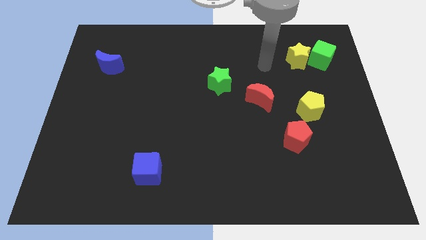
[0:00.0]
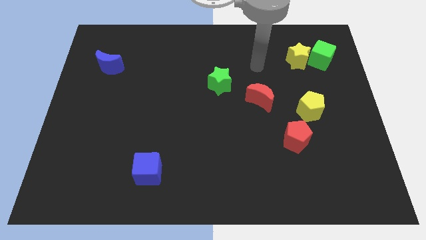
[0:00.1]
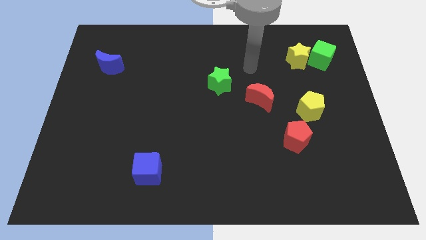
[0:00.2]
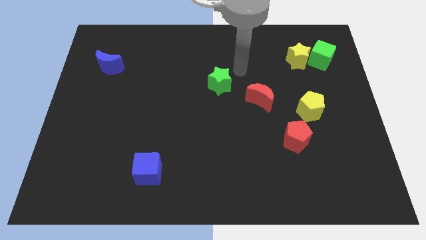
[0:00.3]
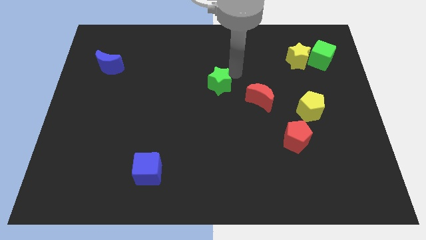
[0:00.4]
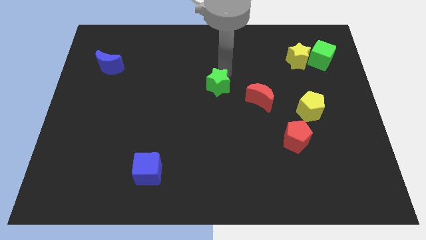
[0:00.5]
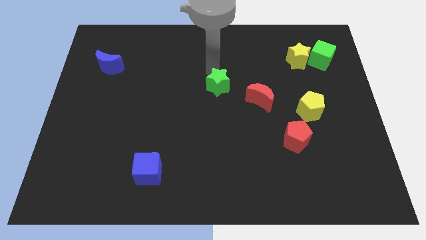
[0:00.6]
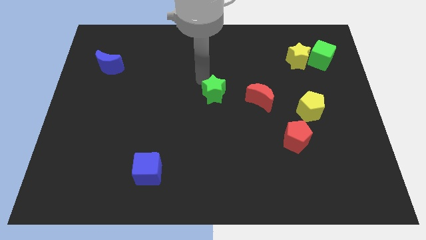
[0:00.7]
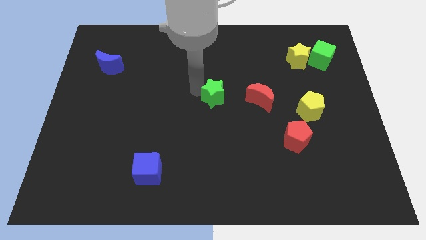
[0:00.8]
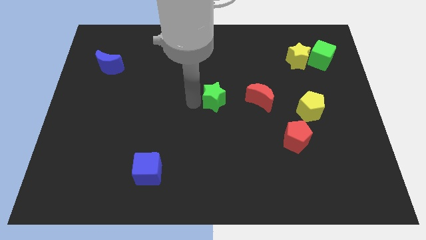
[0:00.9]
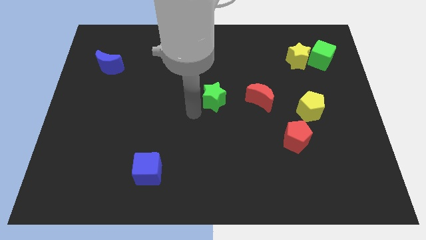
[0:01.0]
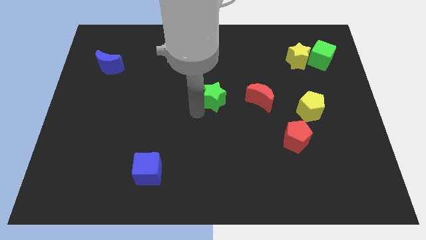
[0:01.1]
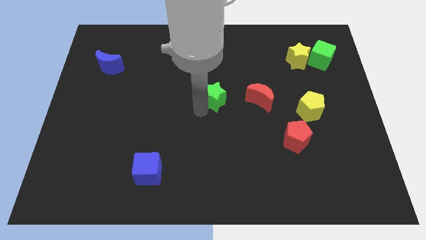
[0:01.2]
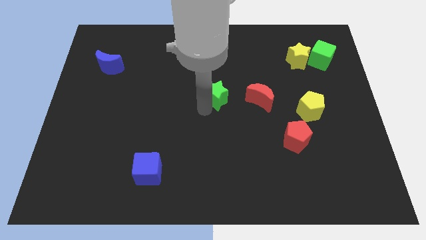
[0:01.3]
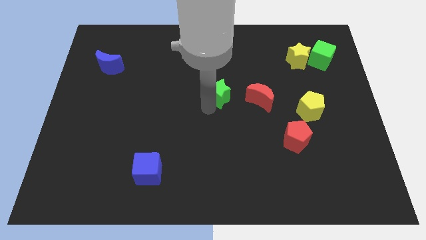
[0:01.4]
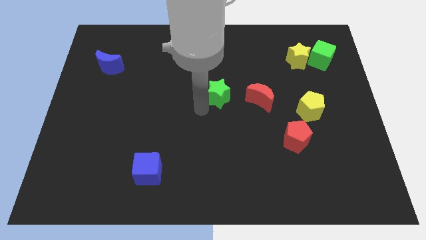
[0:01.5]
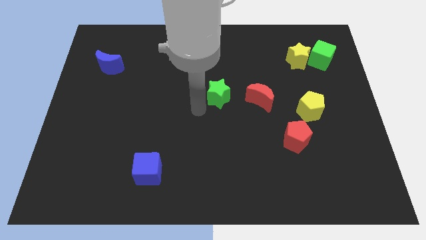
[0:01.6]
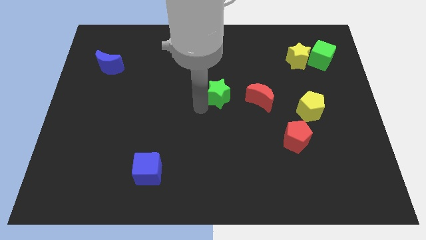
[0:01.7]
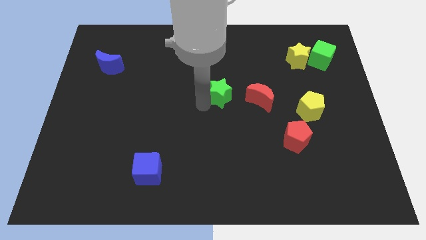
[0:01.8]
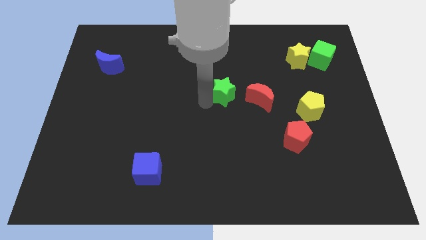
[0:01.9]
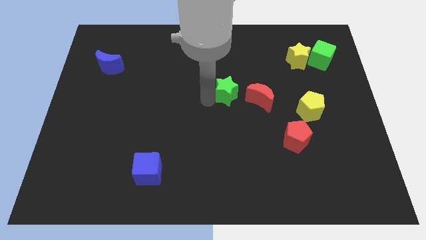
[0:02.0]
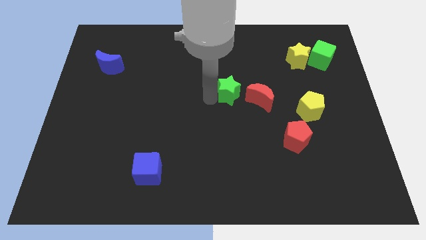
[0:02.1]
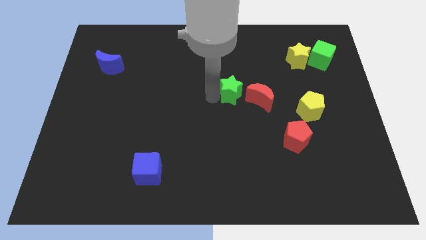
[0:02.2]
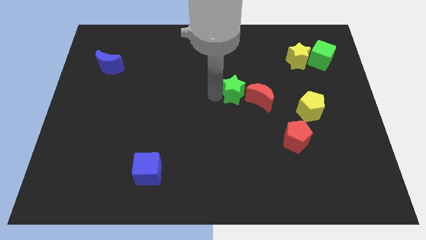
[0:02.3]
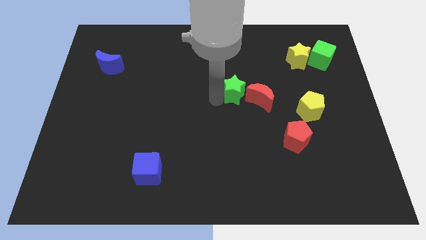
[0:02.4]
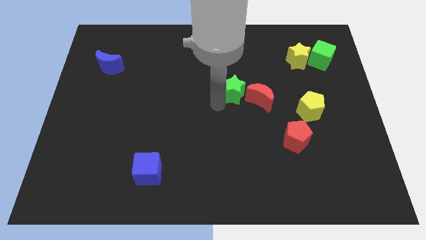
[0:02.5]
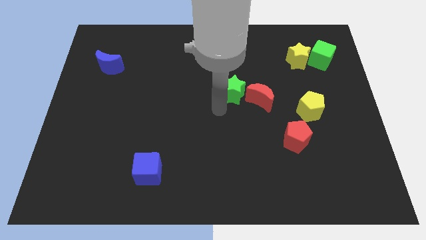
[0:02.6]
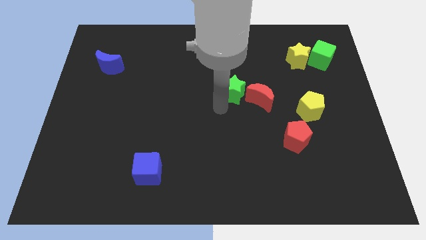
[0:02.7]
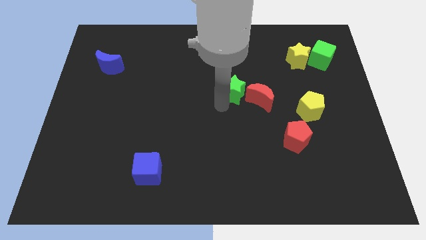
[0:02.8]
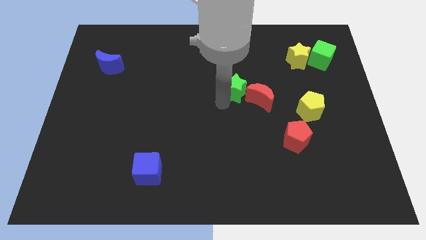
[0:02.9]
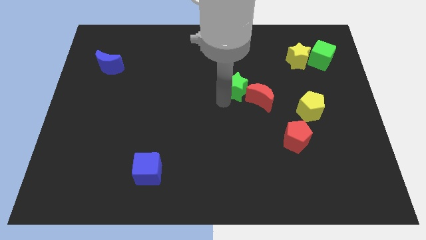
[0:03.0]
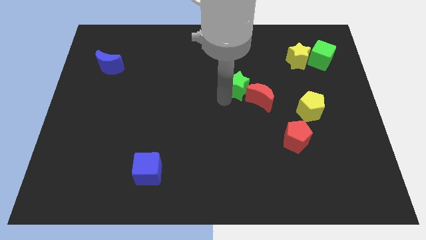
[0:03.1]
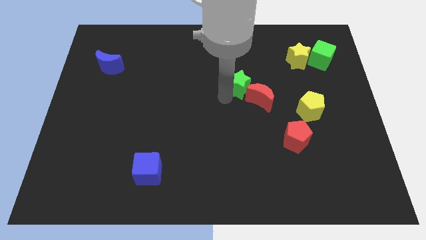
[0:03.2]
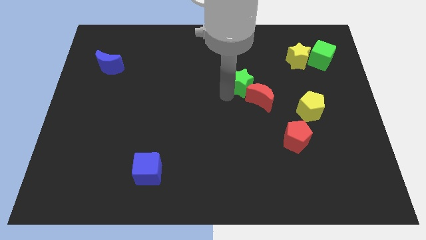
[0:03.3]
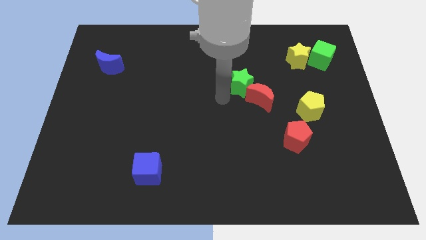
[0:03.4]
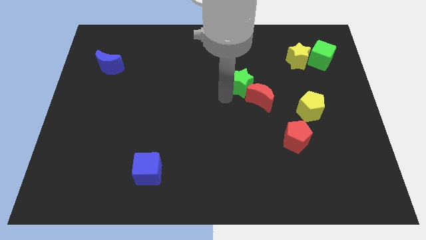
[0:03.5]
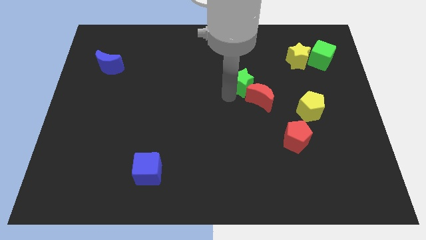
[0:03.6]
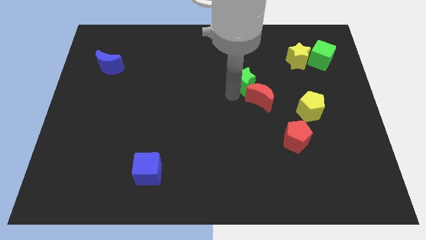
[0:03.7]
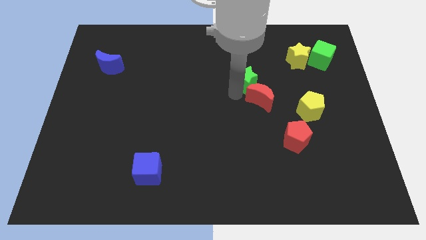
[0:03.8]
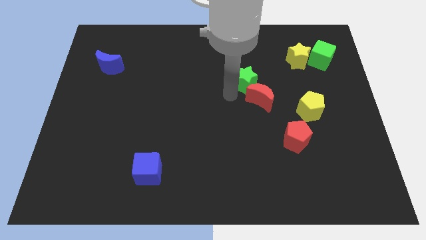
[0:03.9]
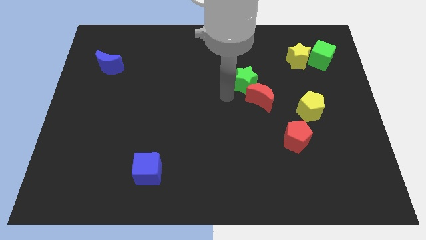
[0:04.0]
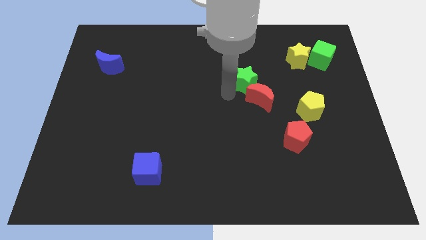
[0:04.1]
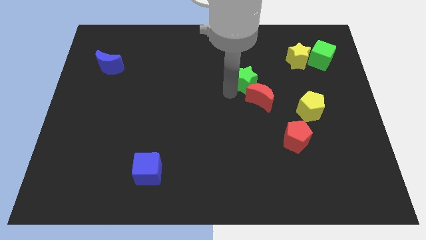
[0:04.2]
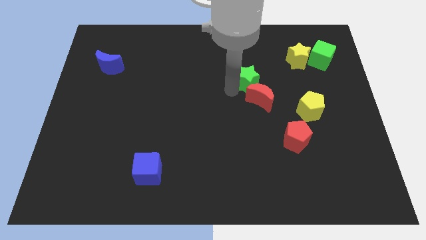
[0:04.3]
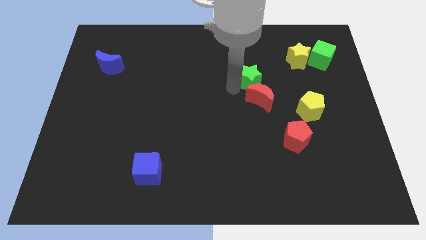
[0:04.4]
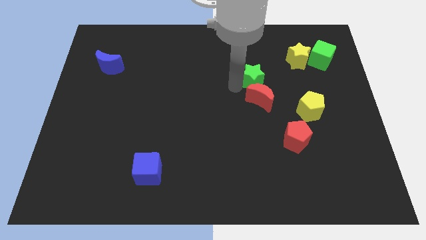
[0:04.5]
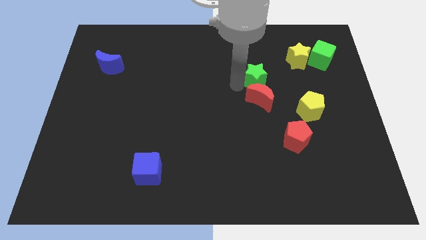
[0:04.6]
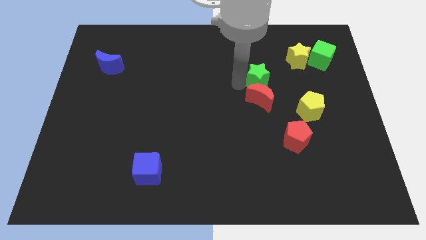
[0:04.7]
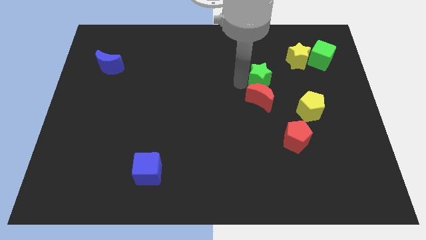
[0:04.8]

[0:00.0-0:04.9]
slide the green star diagonally down and to the left of the yellow star

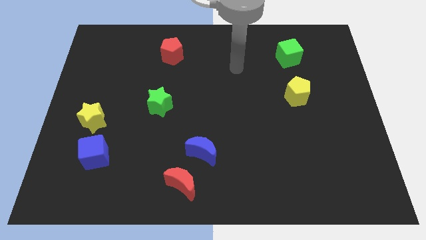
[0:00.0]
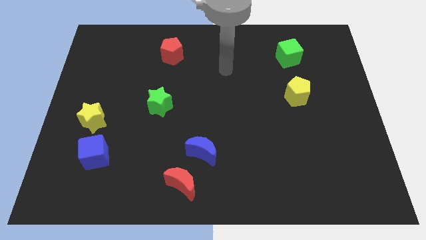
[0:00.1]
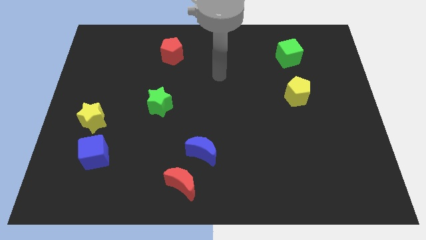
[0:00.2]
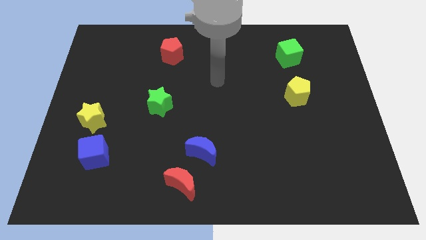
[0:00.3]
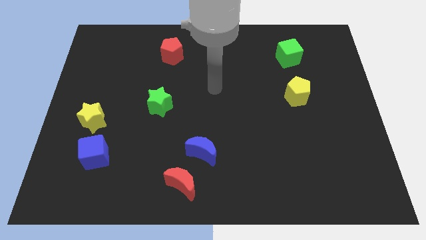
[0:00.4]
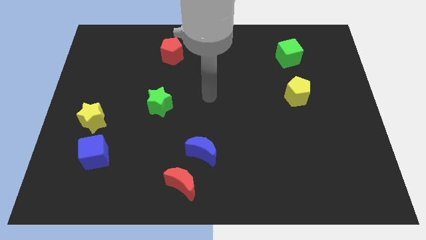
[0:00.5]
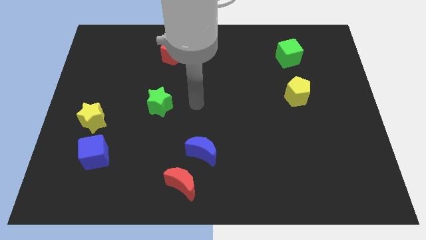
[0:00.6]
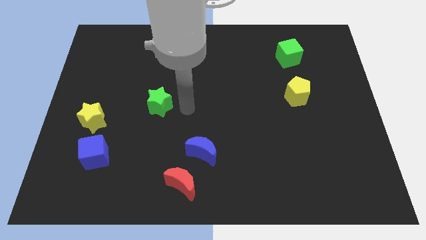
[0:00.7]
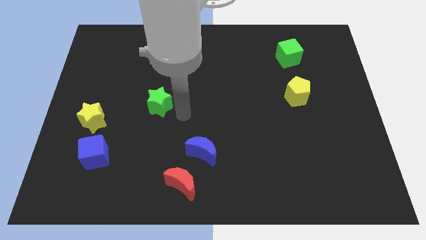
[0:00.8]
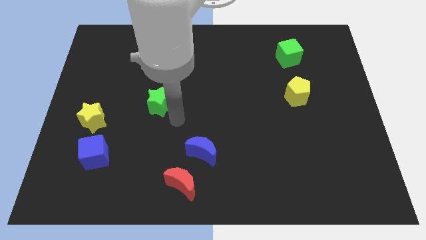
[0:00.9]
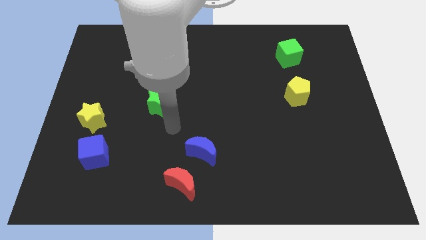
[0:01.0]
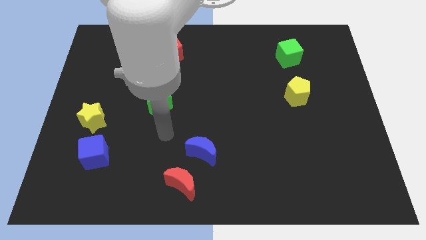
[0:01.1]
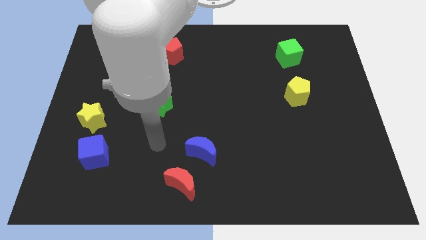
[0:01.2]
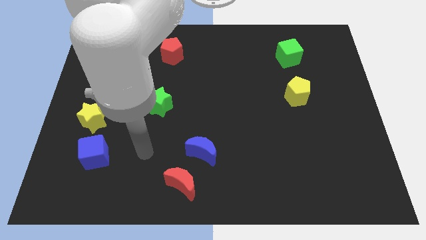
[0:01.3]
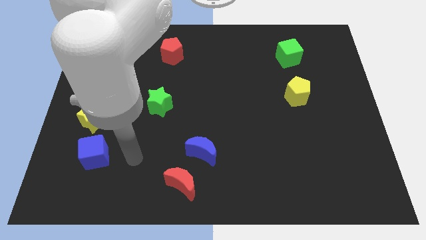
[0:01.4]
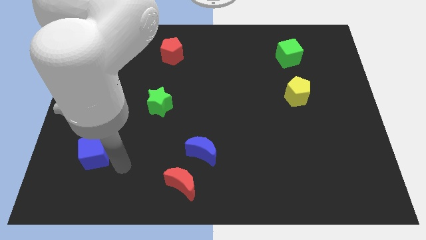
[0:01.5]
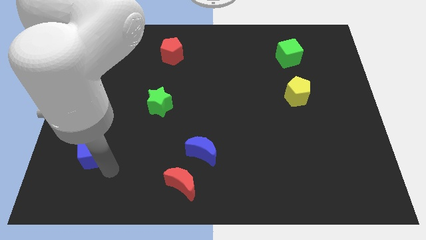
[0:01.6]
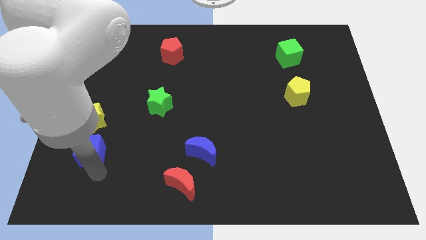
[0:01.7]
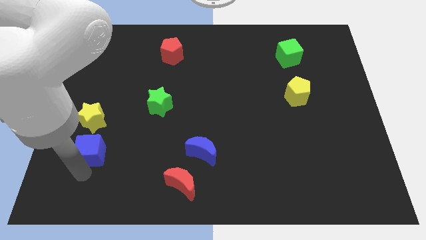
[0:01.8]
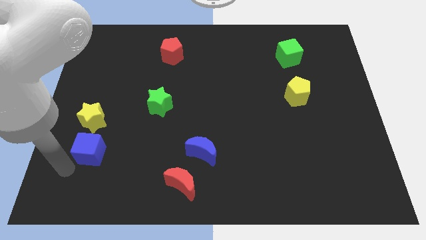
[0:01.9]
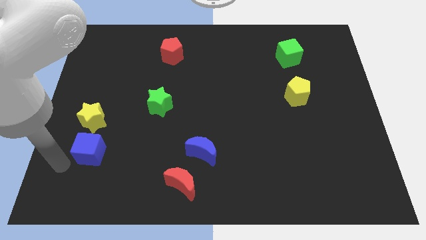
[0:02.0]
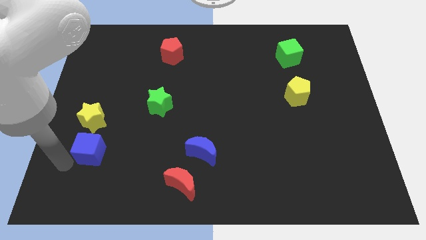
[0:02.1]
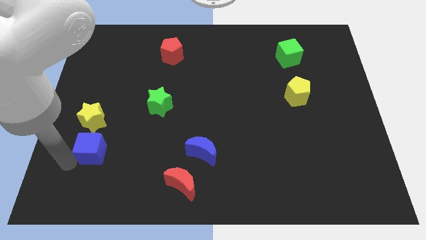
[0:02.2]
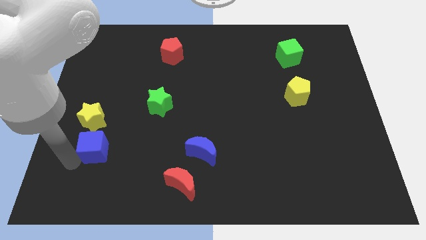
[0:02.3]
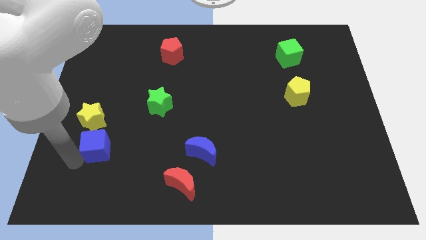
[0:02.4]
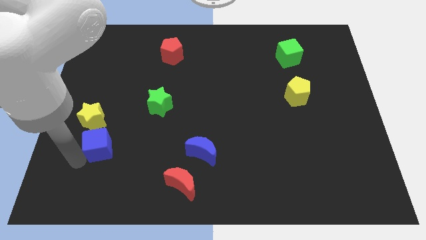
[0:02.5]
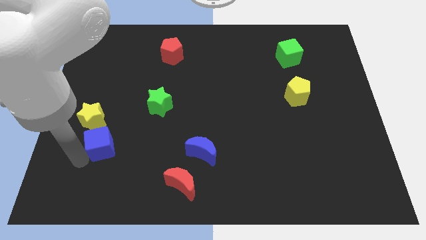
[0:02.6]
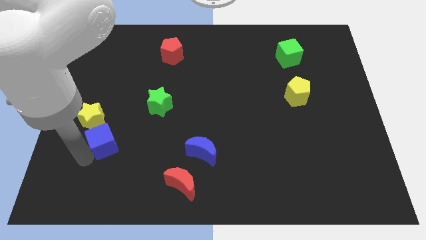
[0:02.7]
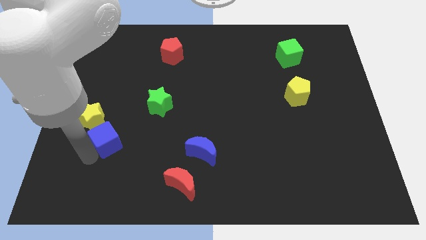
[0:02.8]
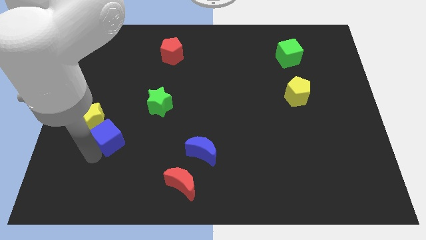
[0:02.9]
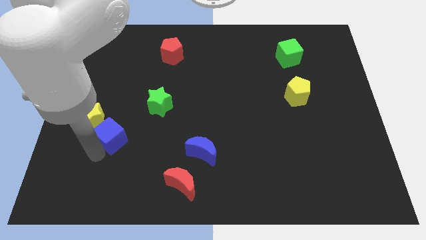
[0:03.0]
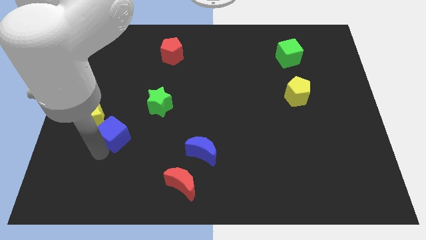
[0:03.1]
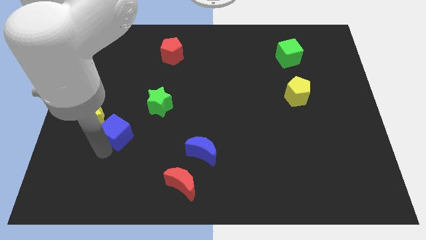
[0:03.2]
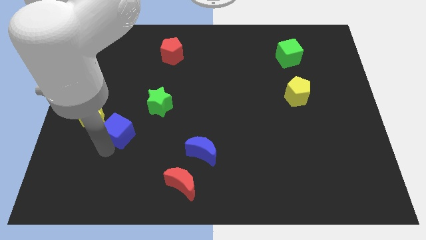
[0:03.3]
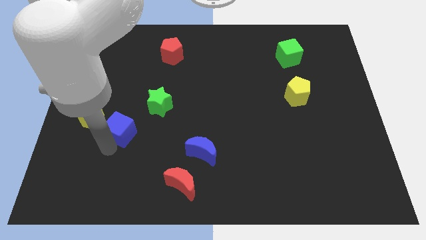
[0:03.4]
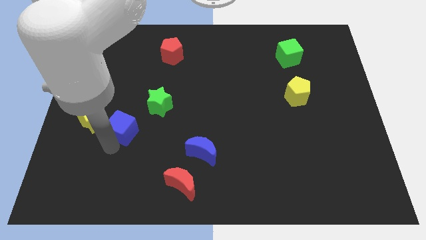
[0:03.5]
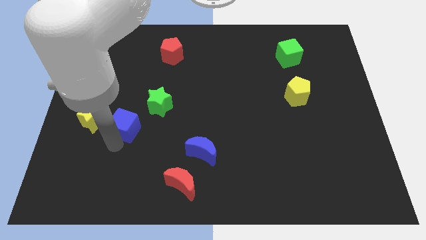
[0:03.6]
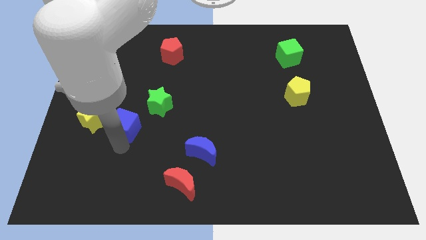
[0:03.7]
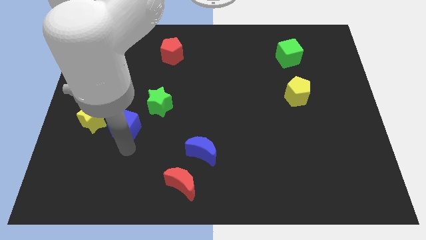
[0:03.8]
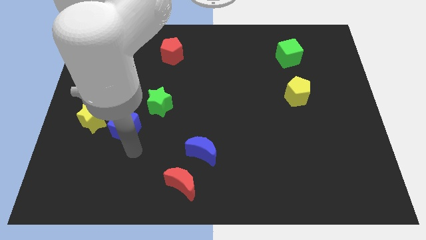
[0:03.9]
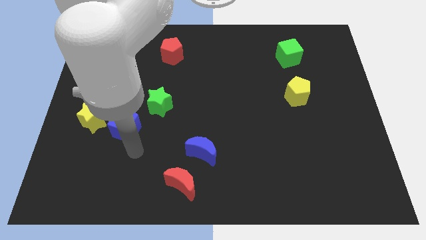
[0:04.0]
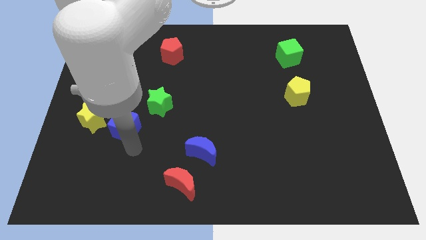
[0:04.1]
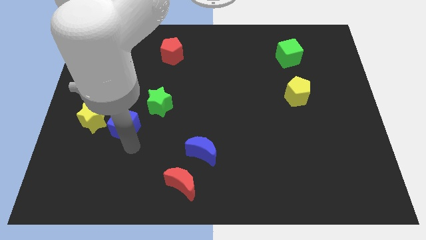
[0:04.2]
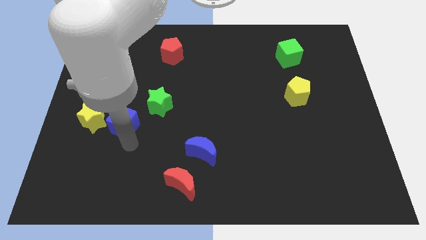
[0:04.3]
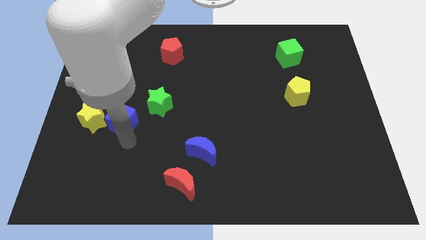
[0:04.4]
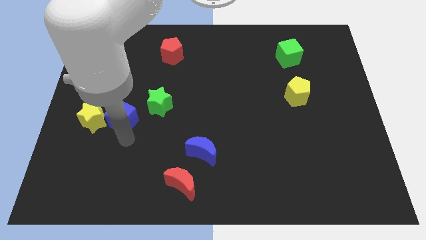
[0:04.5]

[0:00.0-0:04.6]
move the blue cube to the left side of the green star
